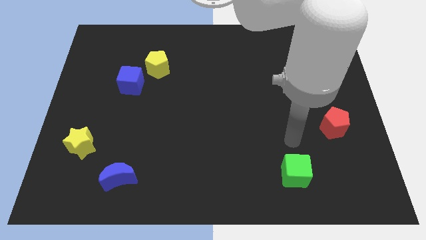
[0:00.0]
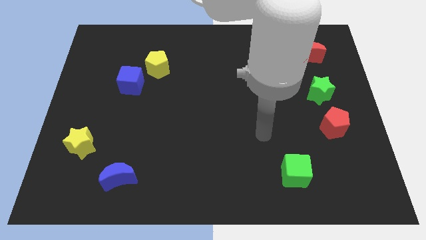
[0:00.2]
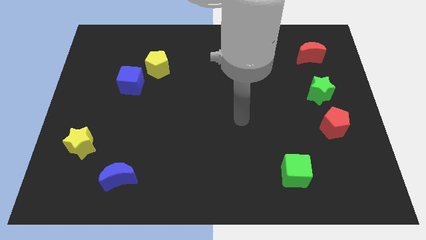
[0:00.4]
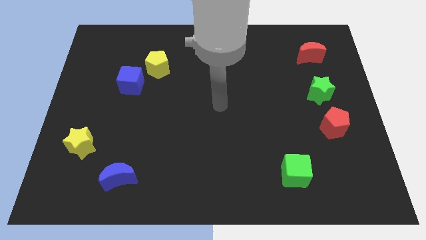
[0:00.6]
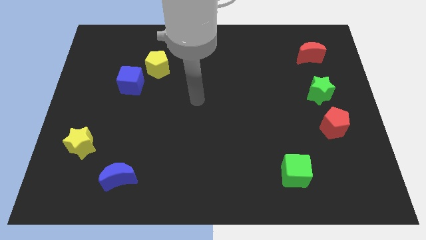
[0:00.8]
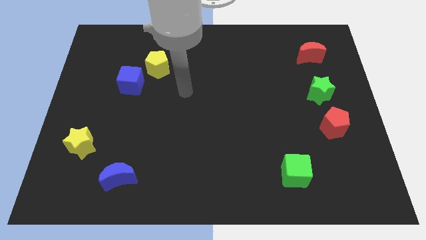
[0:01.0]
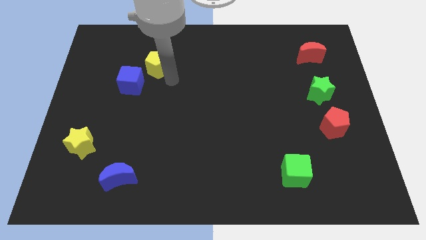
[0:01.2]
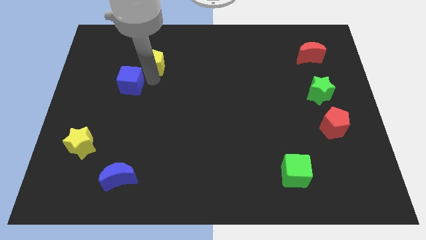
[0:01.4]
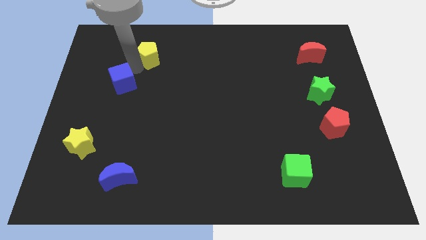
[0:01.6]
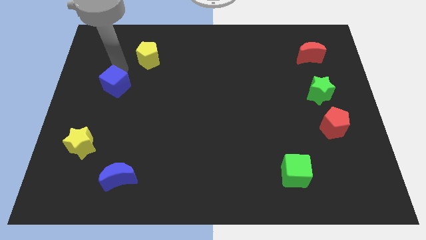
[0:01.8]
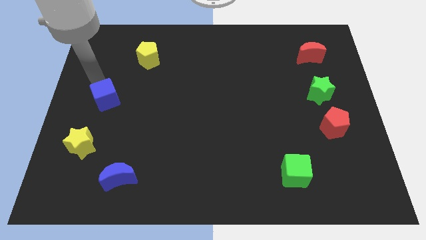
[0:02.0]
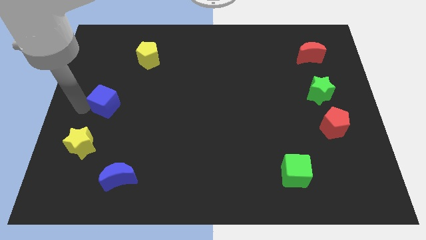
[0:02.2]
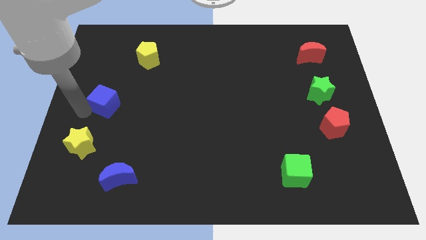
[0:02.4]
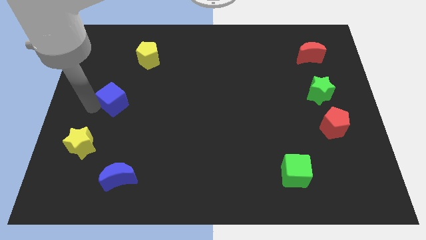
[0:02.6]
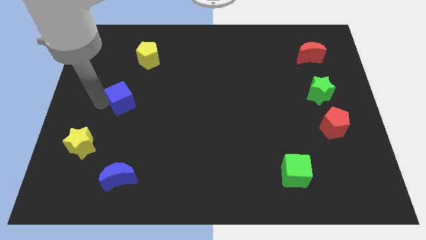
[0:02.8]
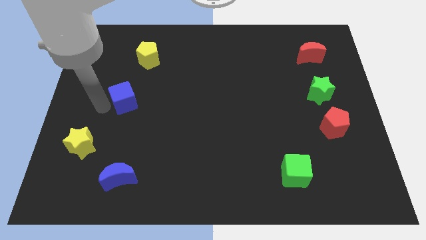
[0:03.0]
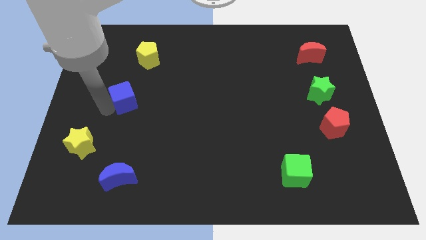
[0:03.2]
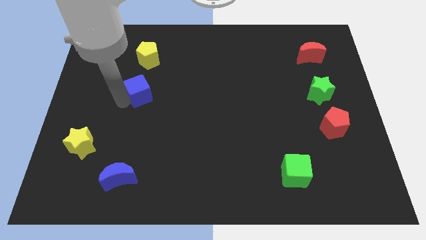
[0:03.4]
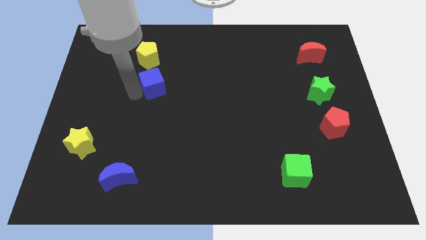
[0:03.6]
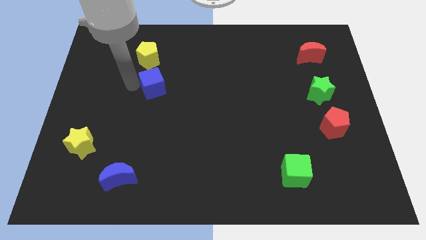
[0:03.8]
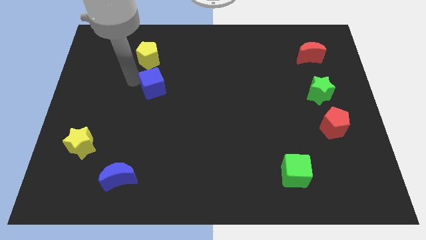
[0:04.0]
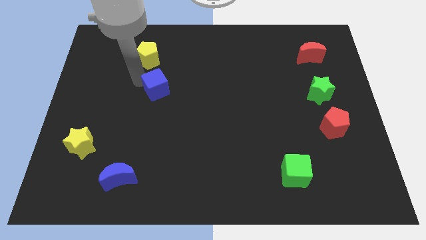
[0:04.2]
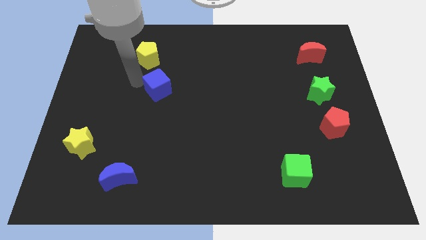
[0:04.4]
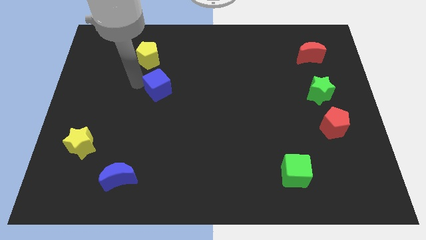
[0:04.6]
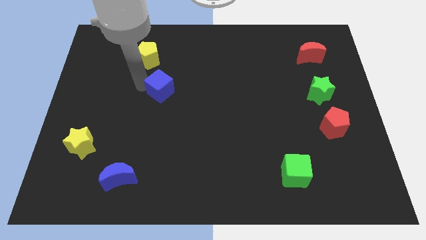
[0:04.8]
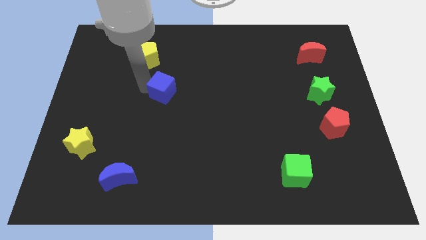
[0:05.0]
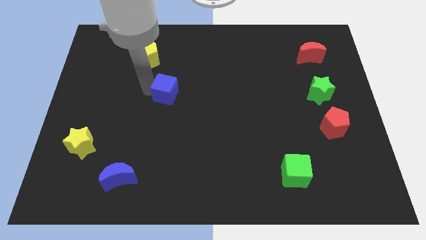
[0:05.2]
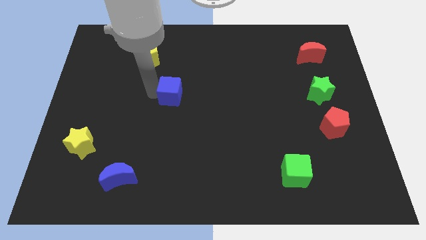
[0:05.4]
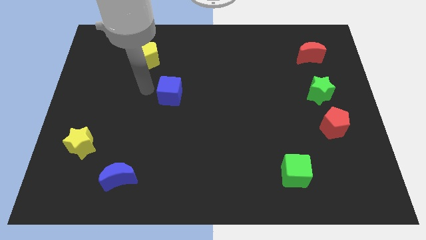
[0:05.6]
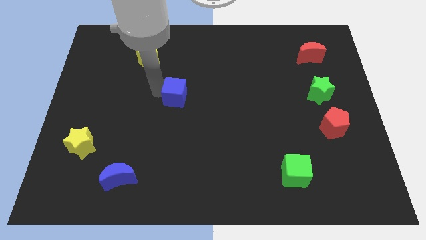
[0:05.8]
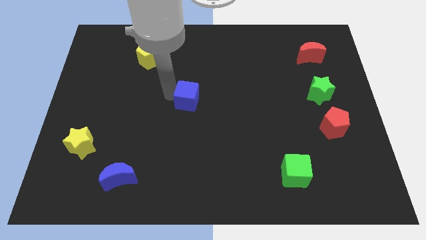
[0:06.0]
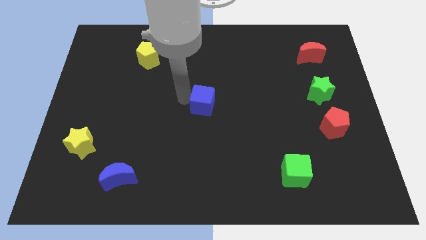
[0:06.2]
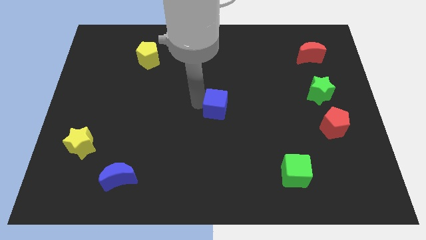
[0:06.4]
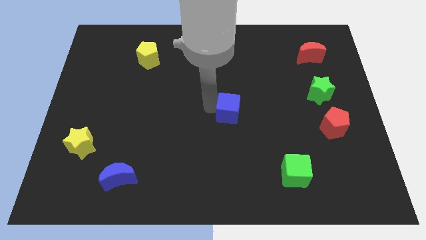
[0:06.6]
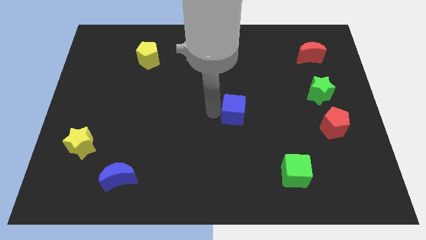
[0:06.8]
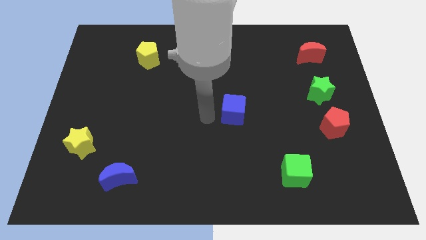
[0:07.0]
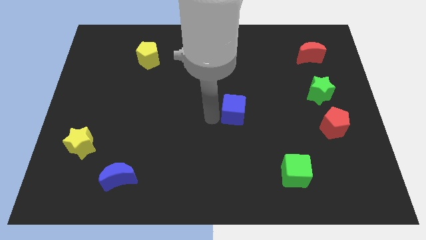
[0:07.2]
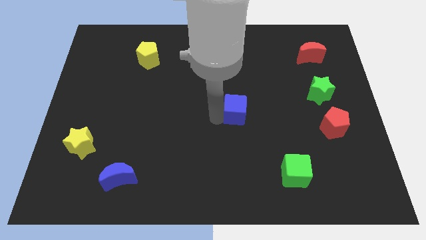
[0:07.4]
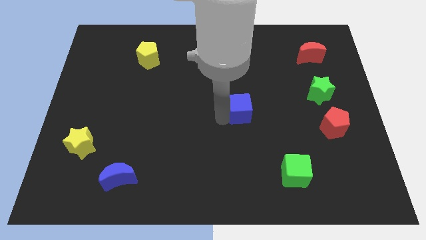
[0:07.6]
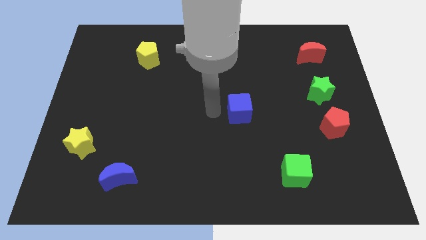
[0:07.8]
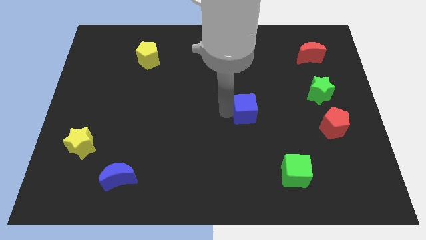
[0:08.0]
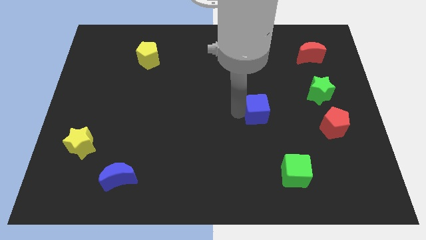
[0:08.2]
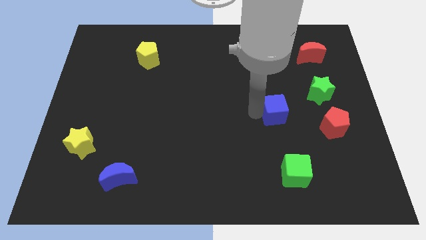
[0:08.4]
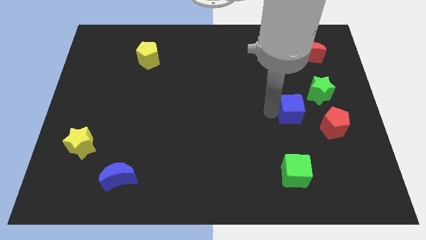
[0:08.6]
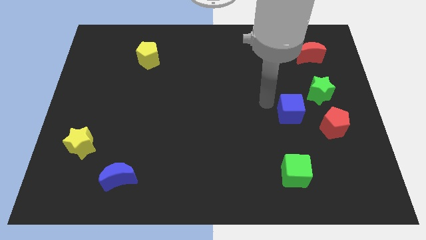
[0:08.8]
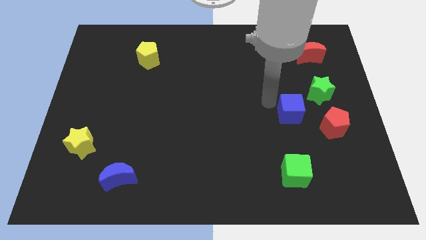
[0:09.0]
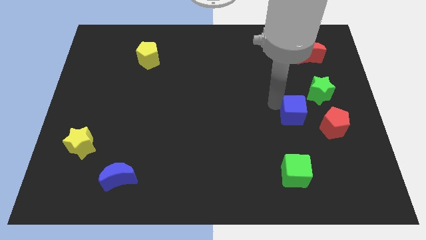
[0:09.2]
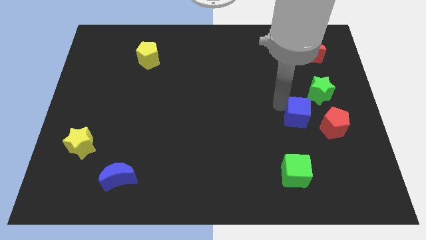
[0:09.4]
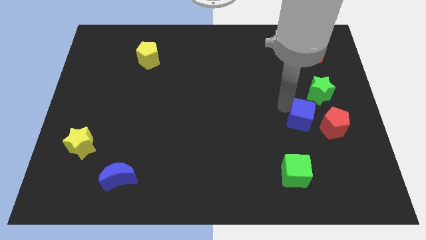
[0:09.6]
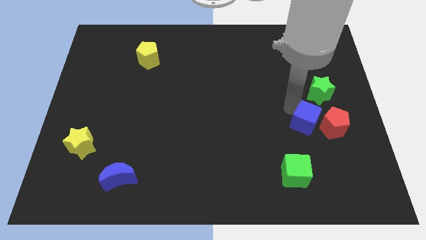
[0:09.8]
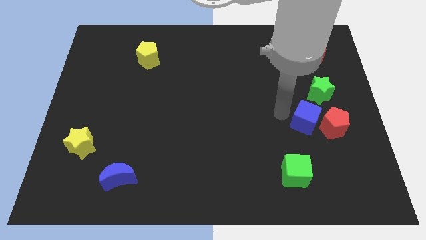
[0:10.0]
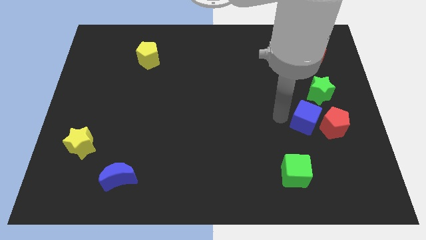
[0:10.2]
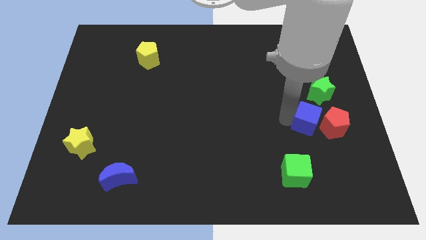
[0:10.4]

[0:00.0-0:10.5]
put the blue cube towards the red pentagon

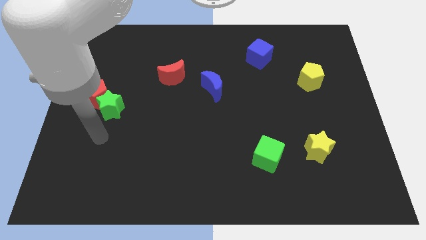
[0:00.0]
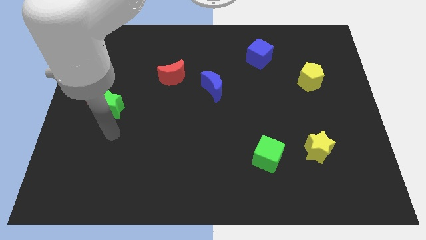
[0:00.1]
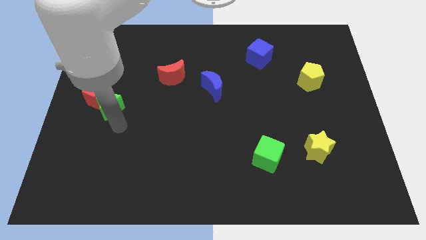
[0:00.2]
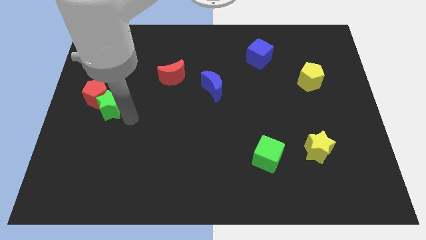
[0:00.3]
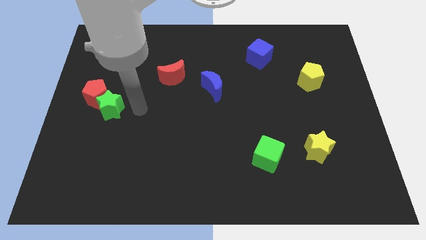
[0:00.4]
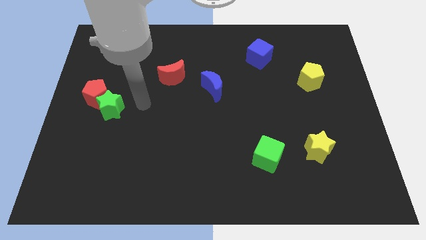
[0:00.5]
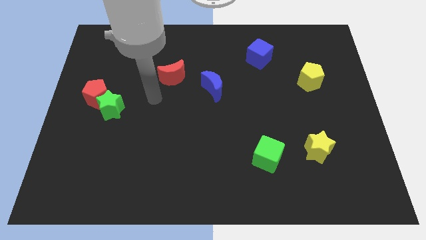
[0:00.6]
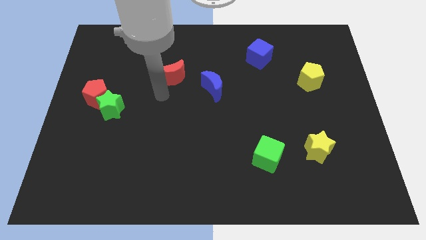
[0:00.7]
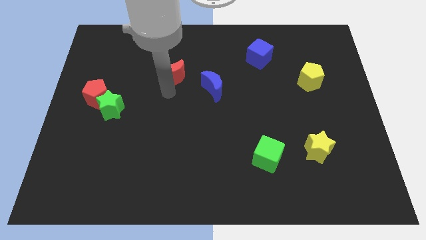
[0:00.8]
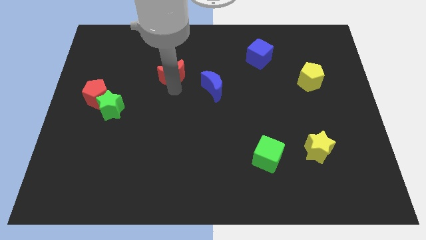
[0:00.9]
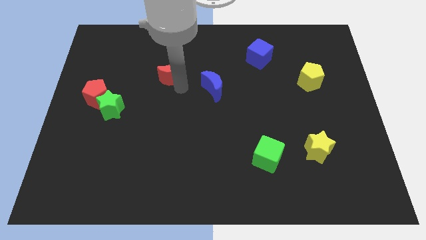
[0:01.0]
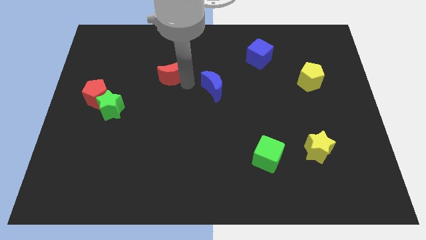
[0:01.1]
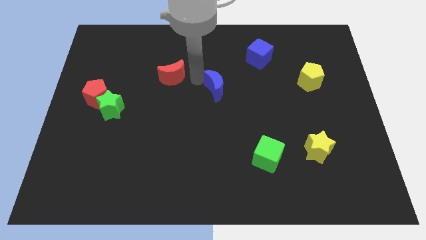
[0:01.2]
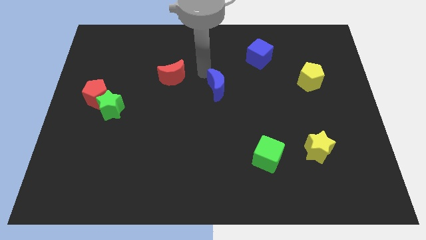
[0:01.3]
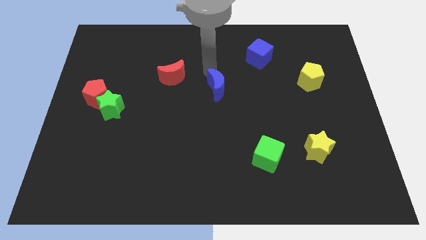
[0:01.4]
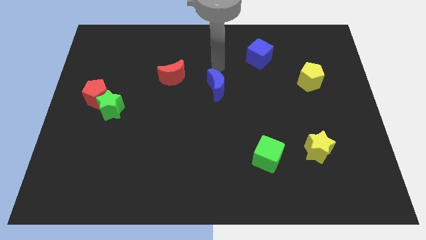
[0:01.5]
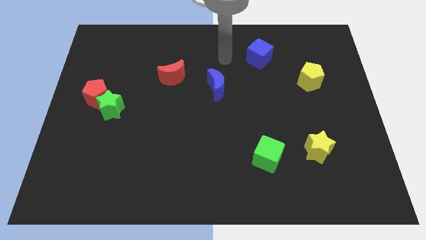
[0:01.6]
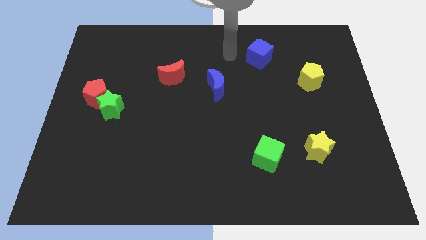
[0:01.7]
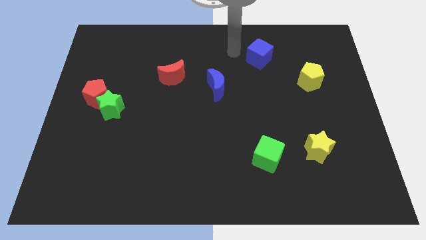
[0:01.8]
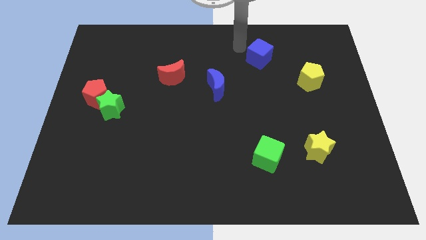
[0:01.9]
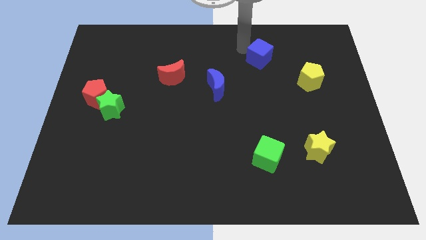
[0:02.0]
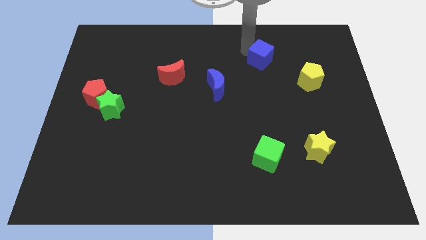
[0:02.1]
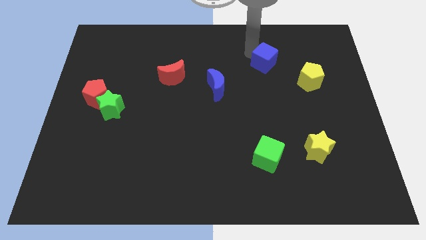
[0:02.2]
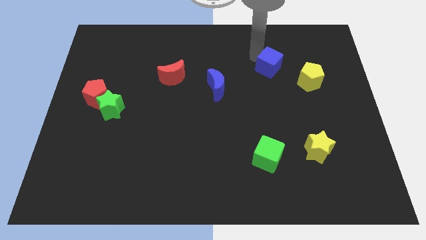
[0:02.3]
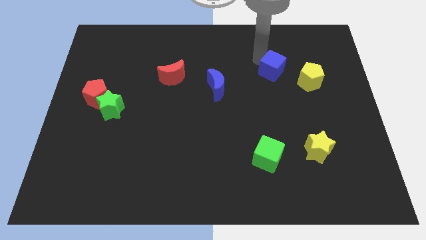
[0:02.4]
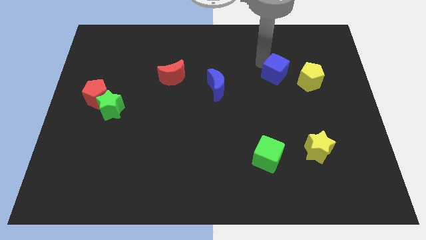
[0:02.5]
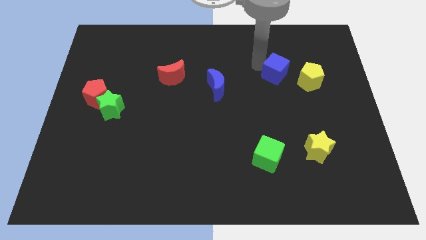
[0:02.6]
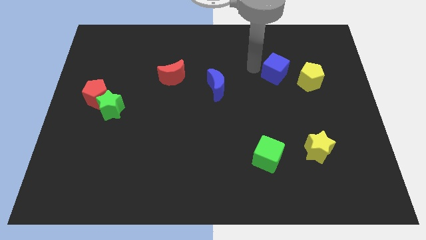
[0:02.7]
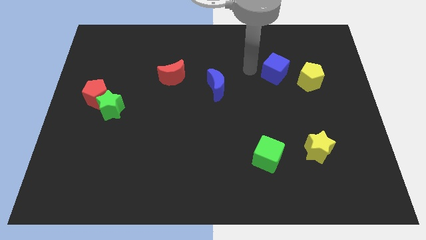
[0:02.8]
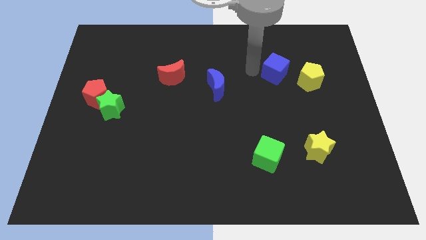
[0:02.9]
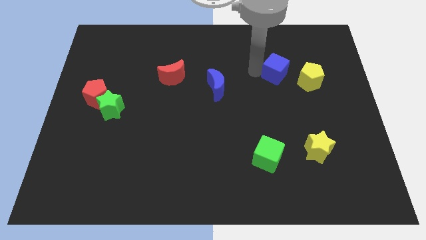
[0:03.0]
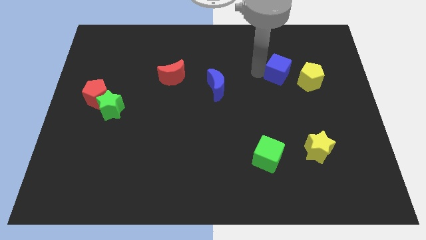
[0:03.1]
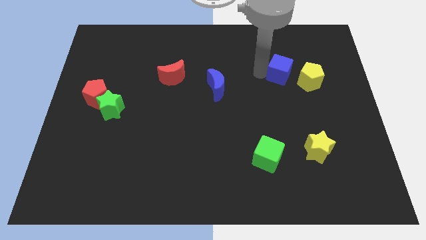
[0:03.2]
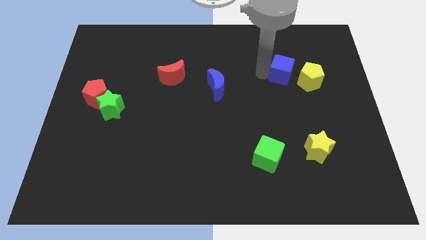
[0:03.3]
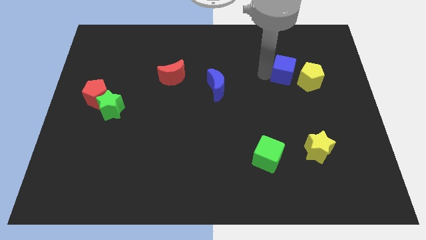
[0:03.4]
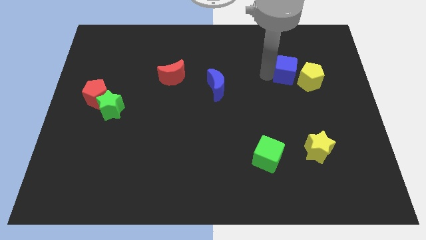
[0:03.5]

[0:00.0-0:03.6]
push the blue cube next to the yellow pentagon
